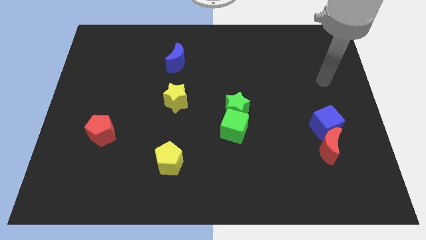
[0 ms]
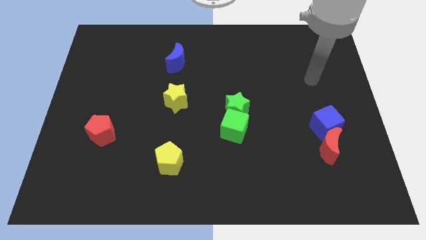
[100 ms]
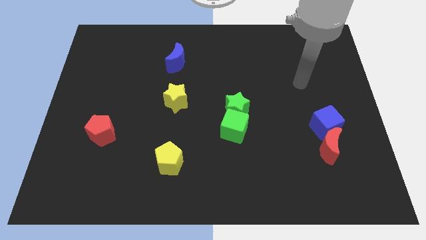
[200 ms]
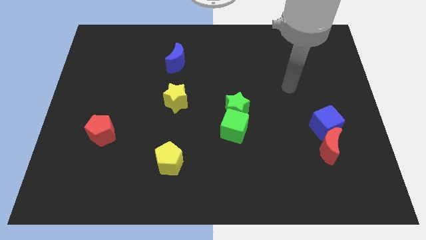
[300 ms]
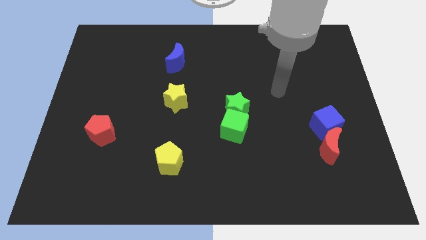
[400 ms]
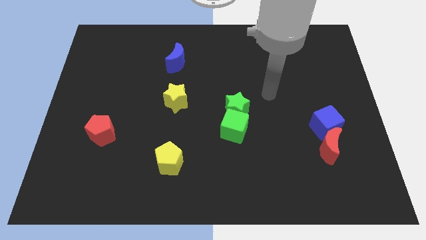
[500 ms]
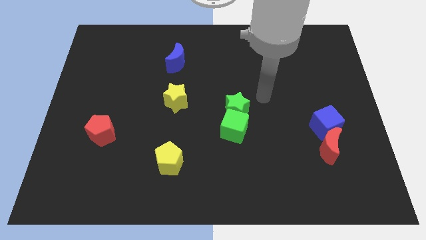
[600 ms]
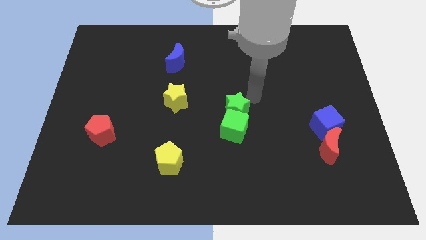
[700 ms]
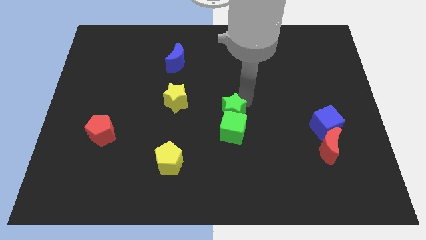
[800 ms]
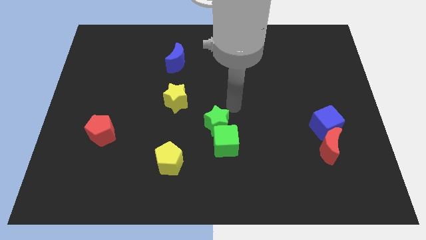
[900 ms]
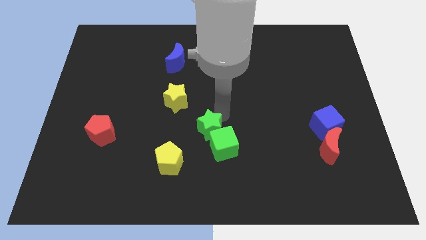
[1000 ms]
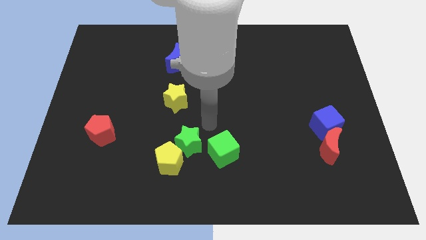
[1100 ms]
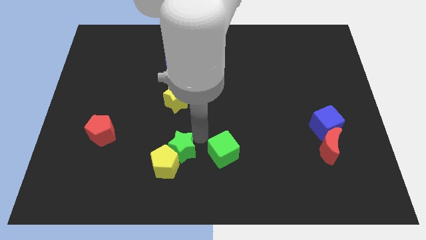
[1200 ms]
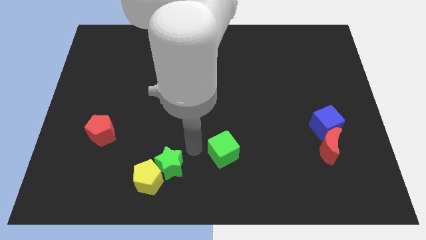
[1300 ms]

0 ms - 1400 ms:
separate the green cube from the green star

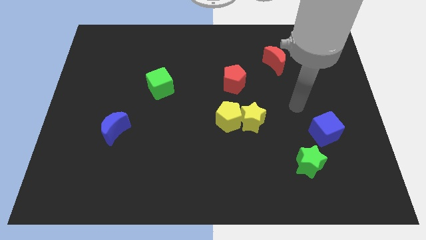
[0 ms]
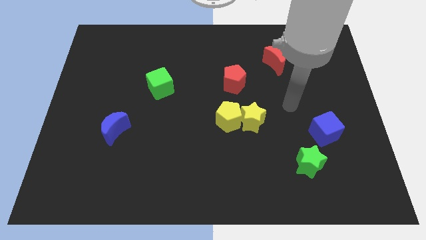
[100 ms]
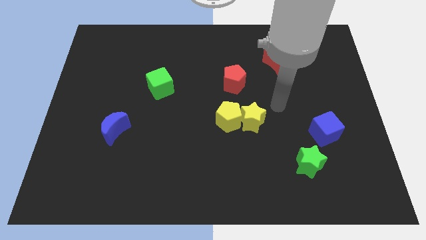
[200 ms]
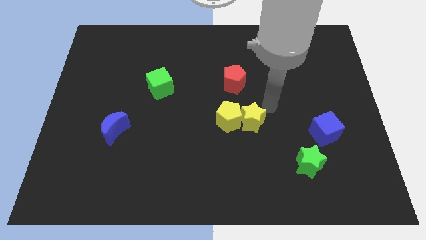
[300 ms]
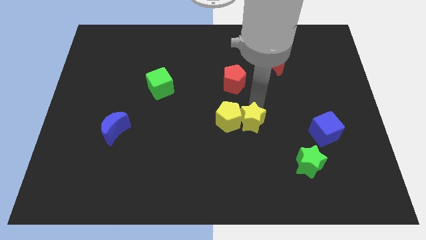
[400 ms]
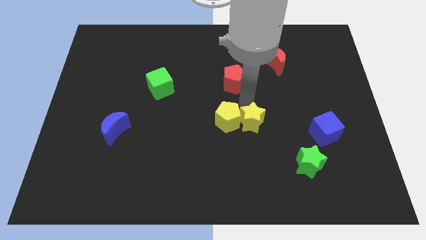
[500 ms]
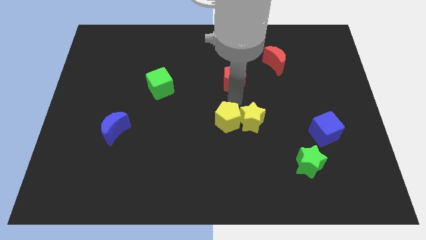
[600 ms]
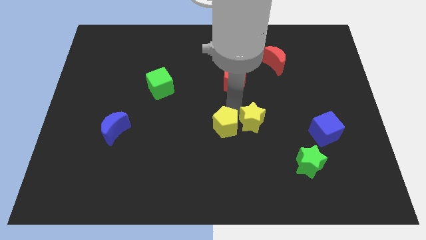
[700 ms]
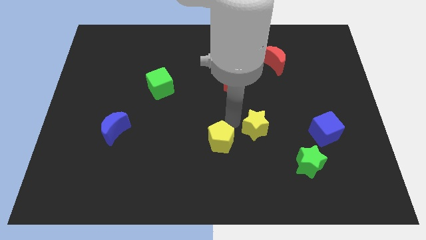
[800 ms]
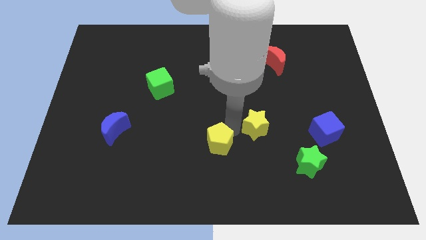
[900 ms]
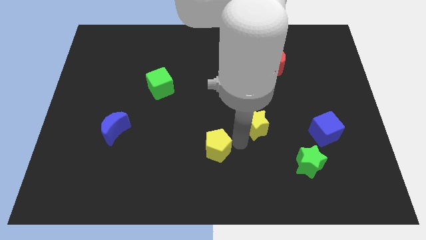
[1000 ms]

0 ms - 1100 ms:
separate the yellow star from the yellow pentagon

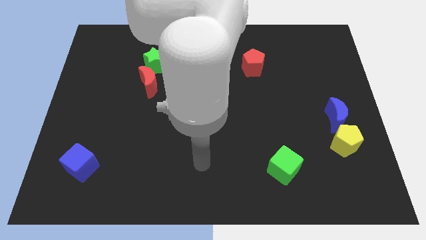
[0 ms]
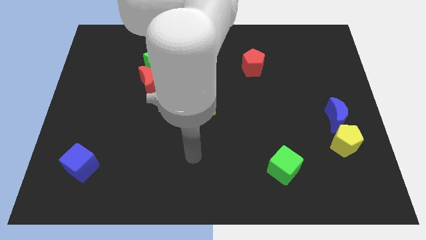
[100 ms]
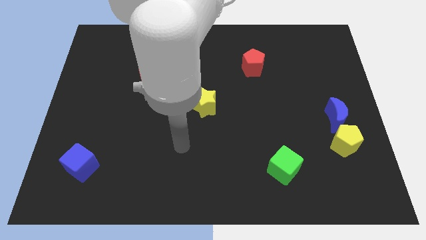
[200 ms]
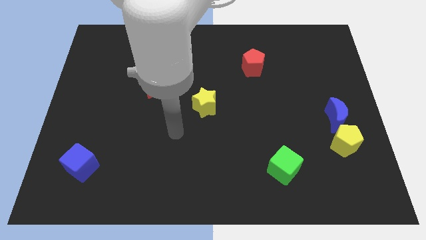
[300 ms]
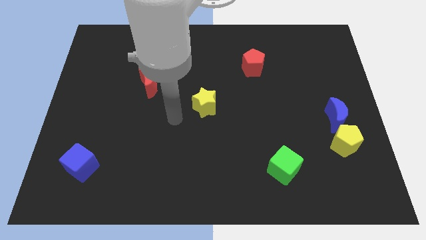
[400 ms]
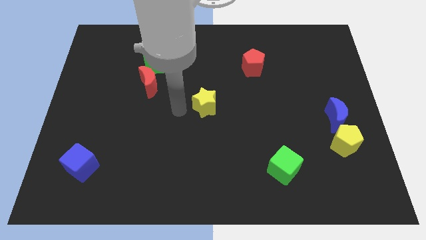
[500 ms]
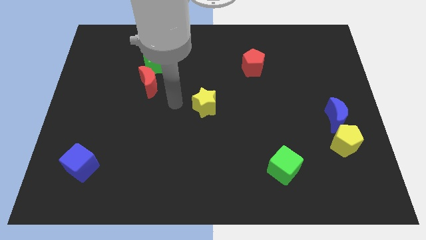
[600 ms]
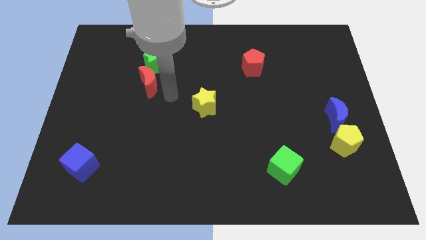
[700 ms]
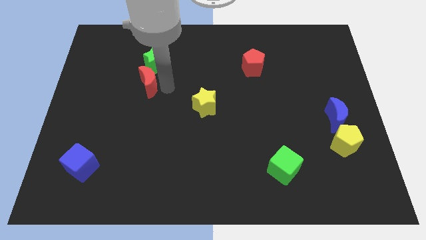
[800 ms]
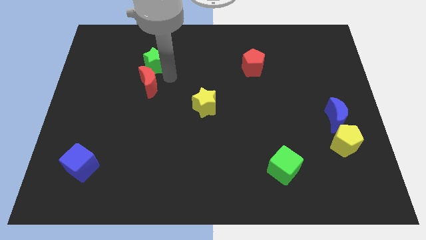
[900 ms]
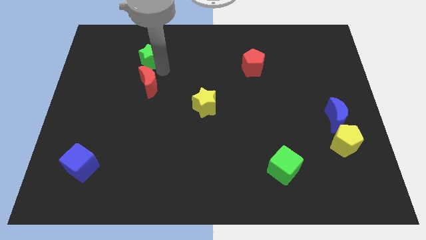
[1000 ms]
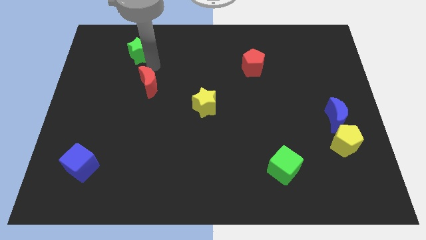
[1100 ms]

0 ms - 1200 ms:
pull the red moon apart from the green star

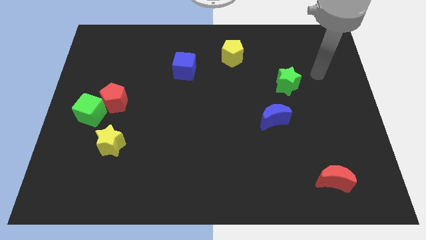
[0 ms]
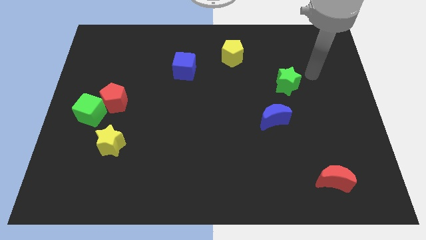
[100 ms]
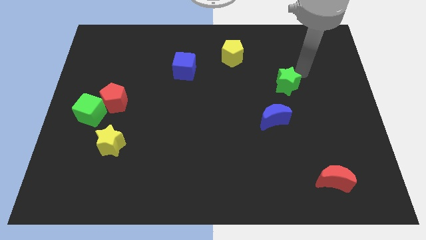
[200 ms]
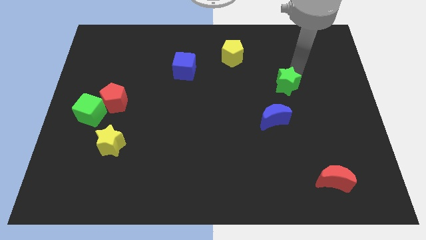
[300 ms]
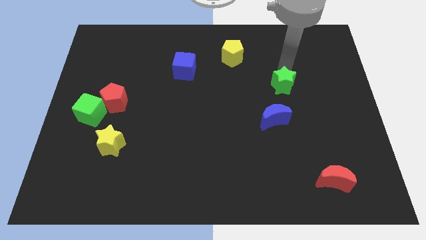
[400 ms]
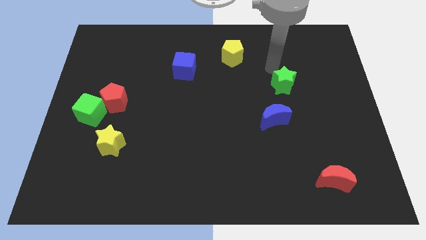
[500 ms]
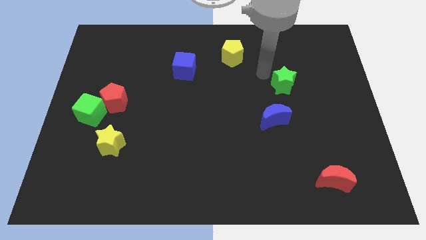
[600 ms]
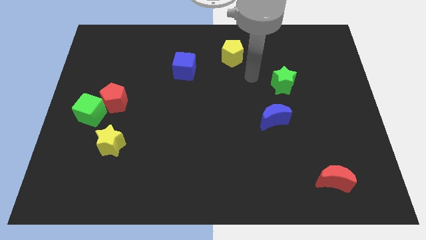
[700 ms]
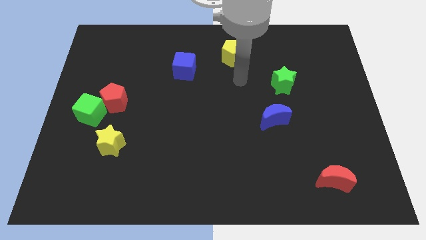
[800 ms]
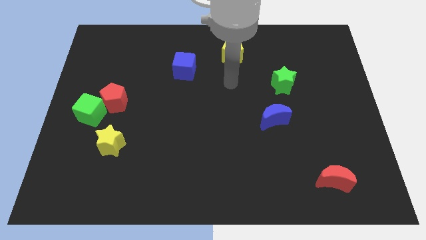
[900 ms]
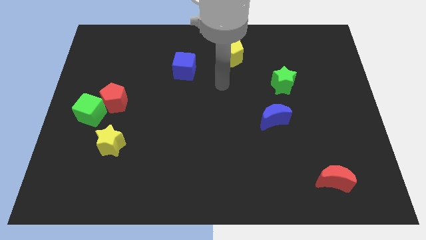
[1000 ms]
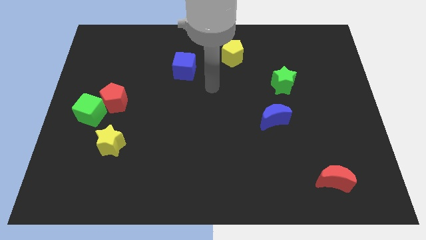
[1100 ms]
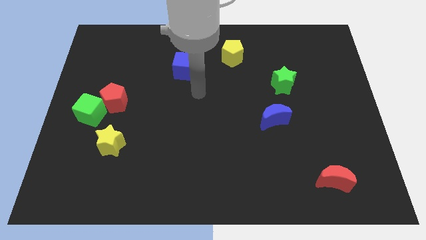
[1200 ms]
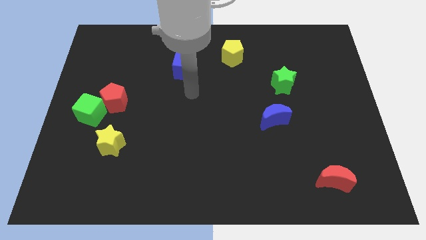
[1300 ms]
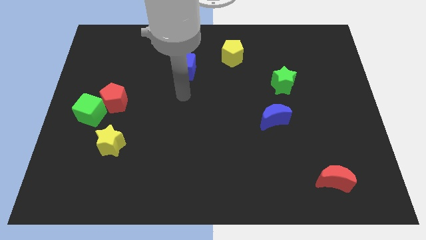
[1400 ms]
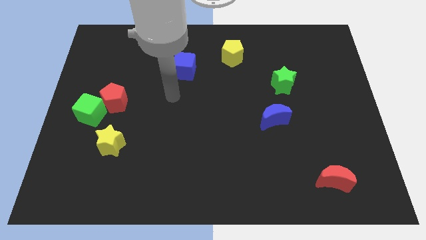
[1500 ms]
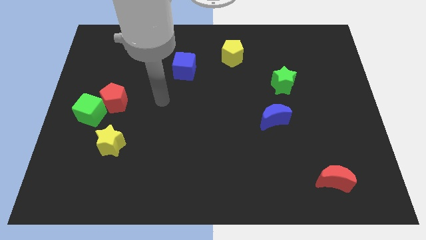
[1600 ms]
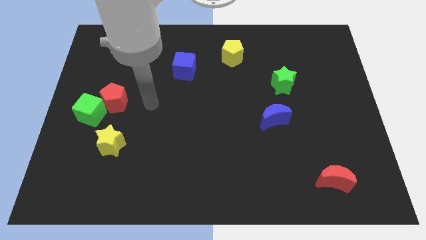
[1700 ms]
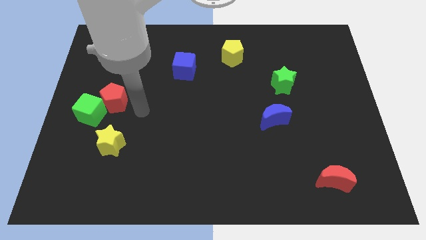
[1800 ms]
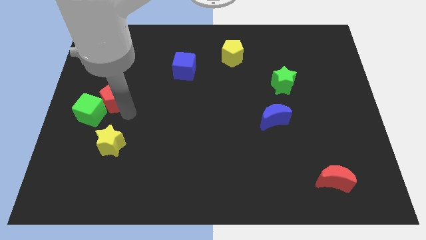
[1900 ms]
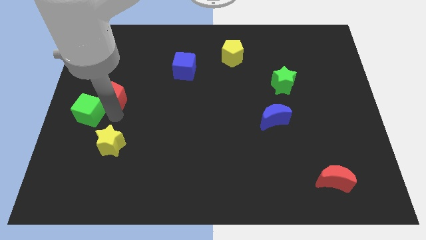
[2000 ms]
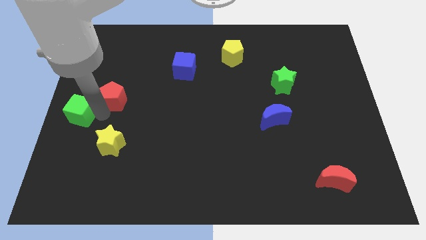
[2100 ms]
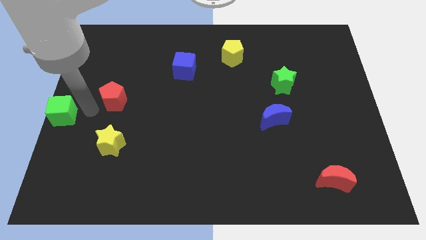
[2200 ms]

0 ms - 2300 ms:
separate the red pentagon from the green cube

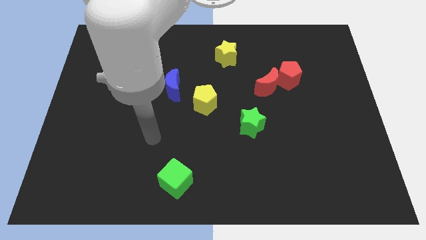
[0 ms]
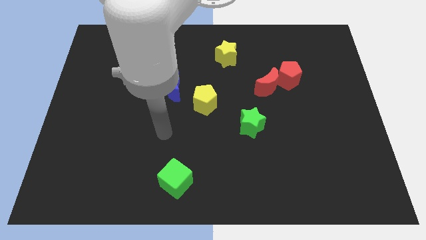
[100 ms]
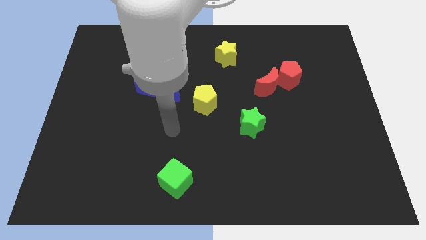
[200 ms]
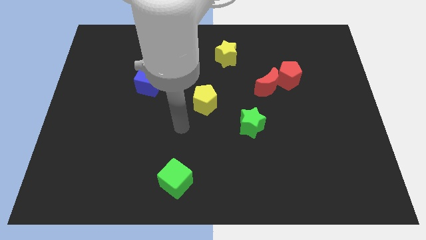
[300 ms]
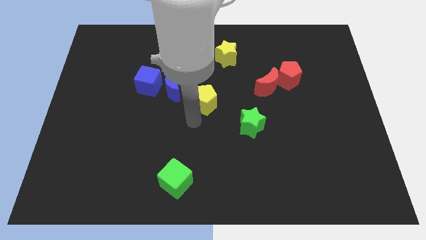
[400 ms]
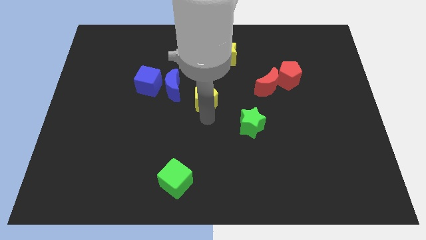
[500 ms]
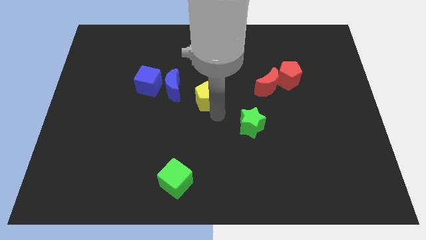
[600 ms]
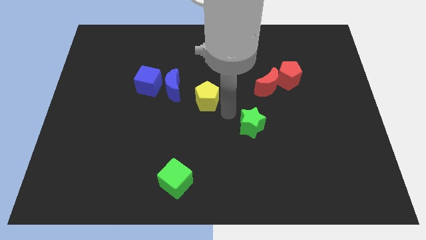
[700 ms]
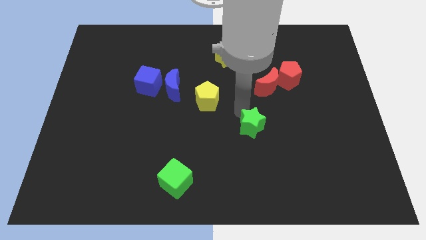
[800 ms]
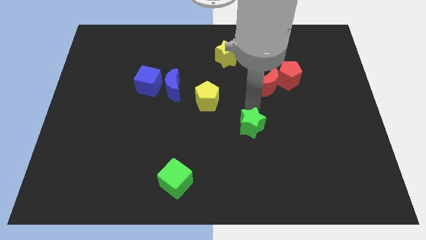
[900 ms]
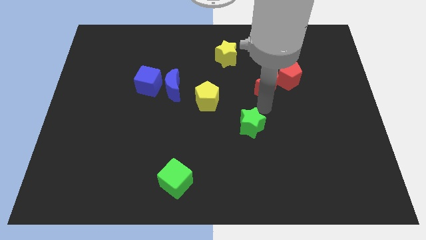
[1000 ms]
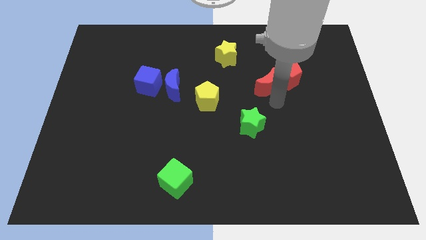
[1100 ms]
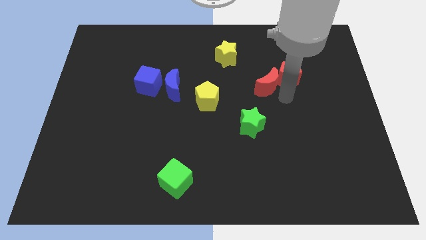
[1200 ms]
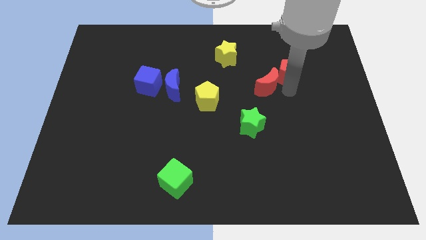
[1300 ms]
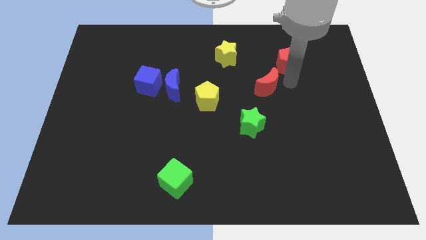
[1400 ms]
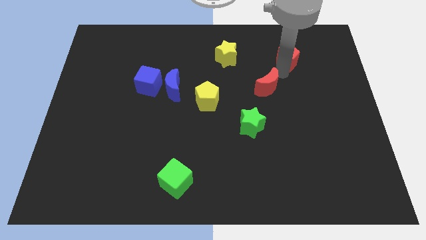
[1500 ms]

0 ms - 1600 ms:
move the red moon away from the red pentagon

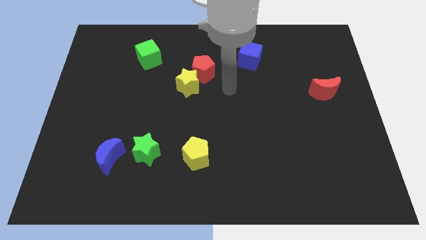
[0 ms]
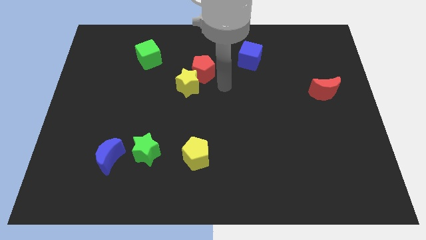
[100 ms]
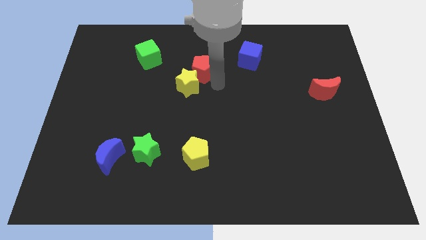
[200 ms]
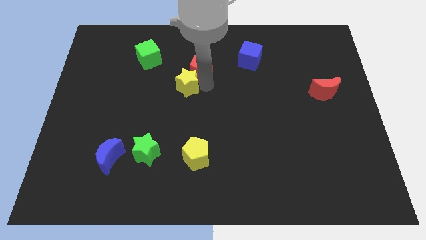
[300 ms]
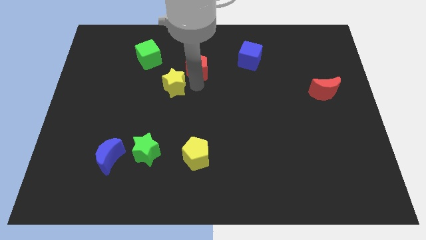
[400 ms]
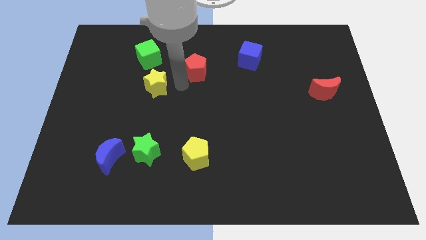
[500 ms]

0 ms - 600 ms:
move the red pentagon away from the yellow star

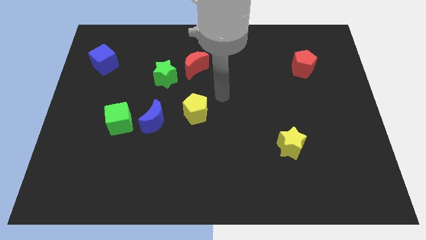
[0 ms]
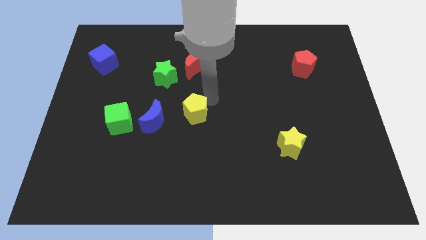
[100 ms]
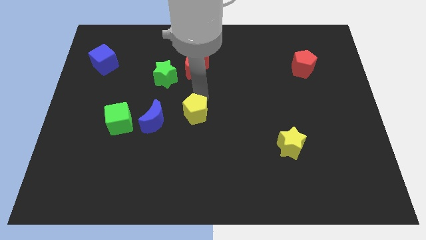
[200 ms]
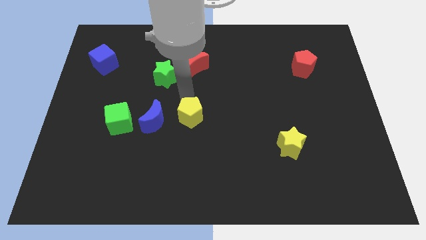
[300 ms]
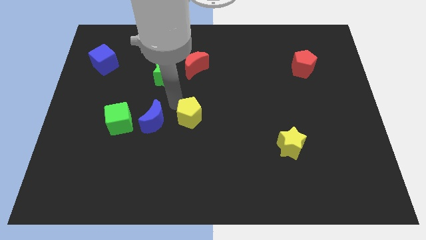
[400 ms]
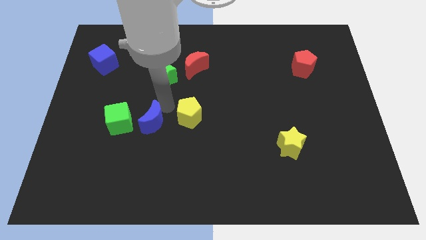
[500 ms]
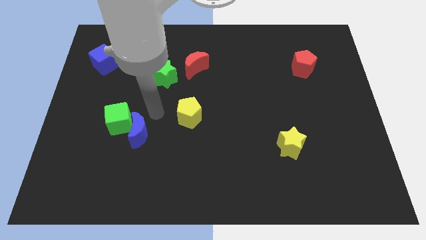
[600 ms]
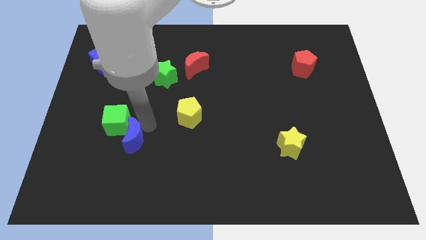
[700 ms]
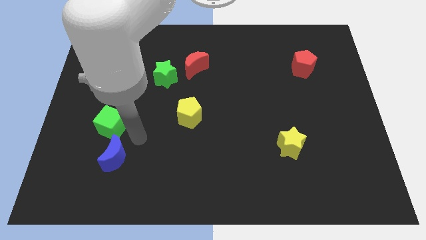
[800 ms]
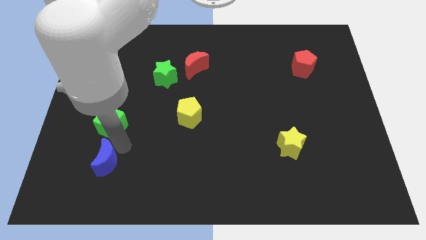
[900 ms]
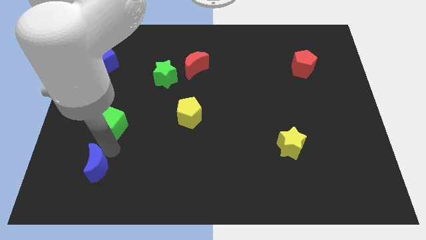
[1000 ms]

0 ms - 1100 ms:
separate the green cube from the blue moon
